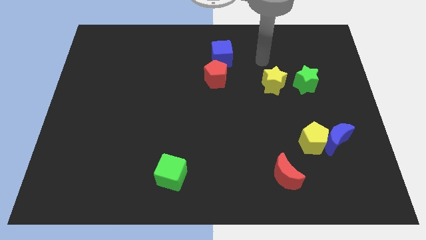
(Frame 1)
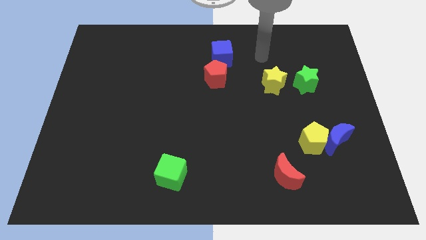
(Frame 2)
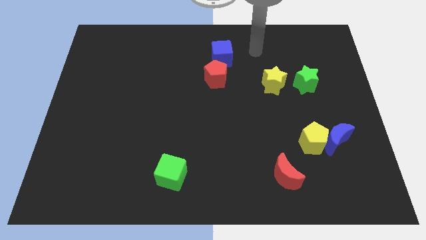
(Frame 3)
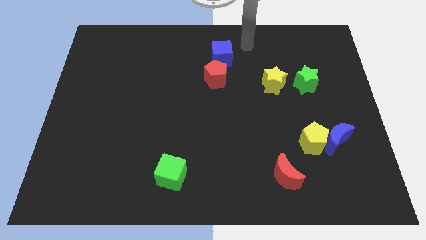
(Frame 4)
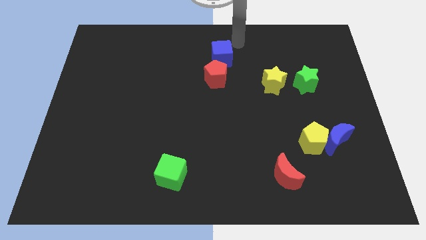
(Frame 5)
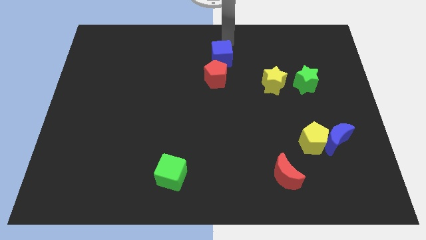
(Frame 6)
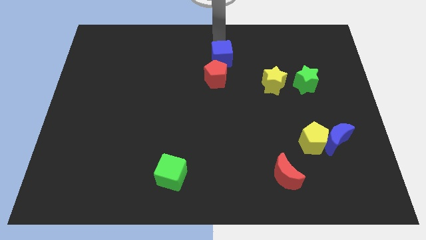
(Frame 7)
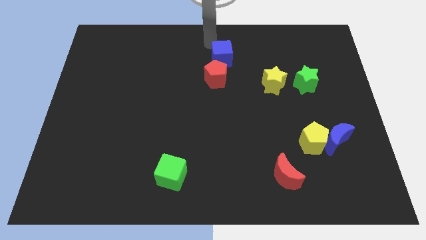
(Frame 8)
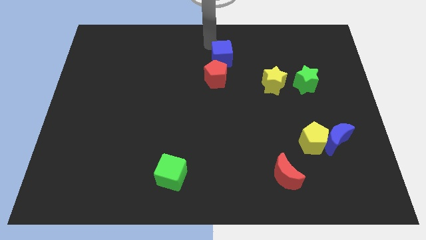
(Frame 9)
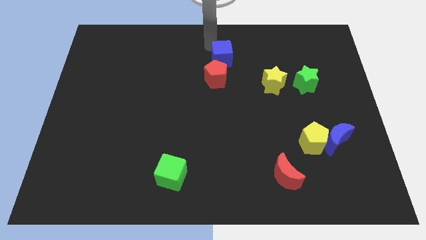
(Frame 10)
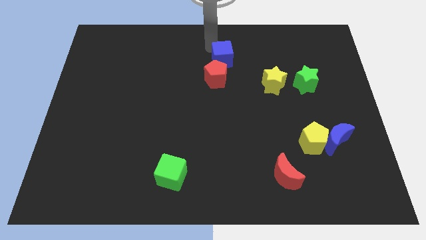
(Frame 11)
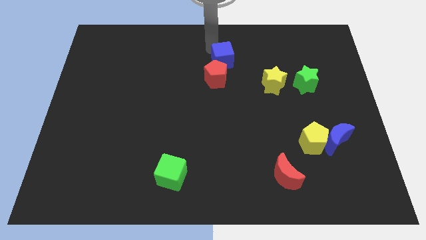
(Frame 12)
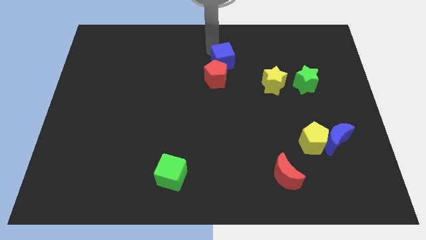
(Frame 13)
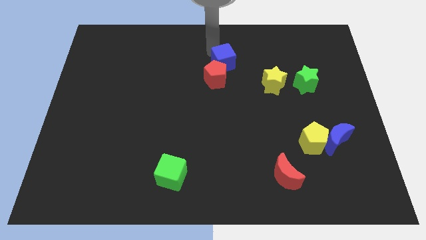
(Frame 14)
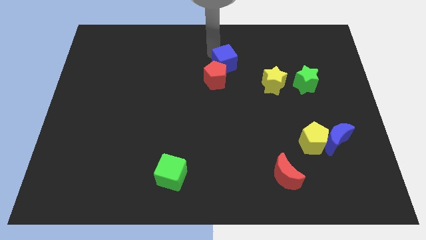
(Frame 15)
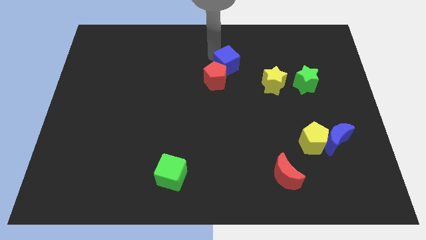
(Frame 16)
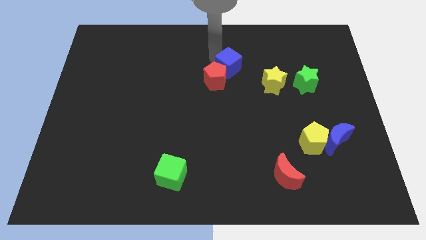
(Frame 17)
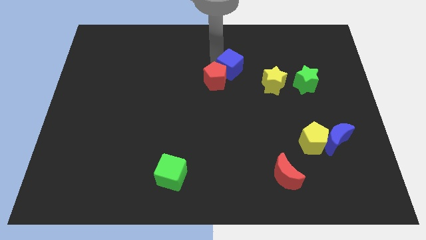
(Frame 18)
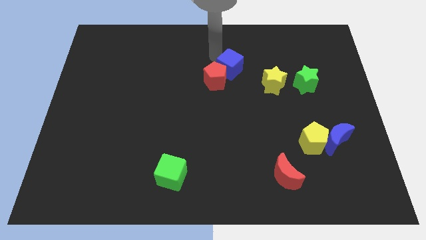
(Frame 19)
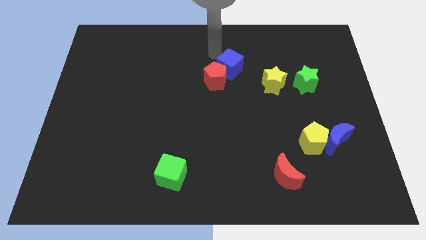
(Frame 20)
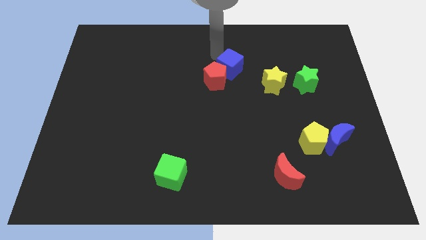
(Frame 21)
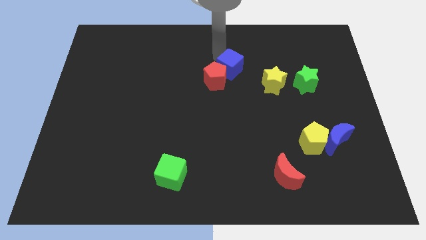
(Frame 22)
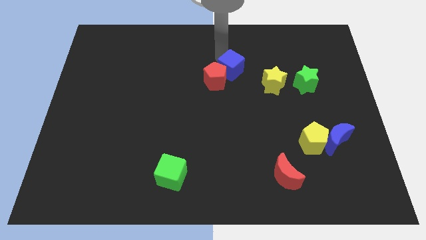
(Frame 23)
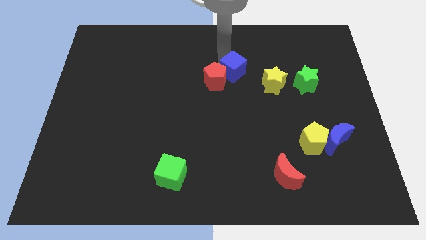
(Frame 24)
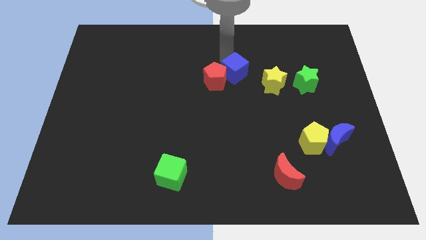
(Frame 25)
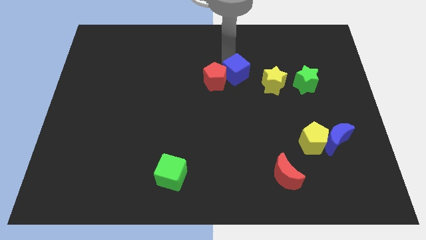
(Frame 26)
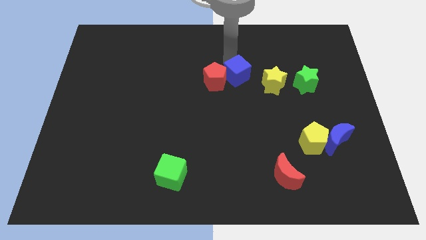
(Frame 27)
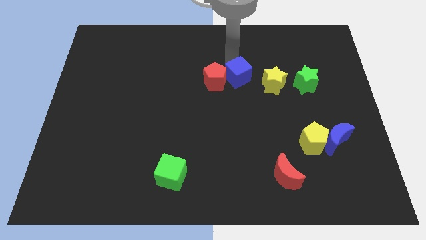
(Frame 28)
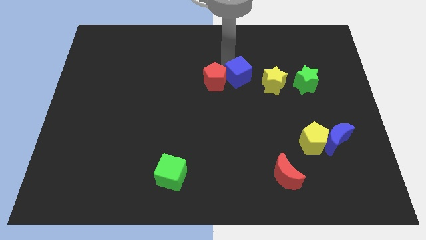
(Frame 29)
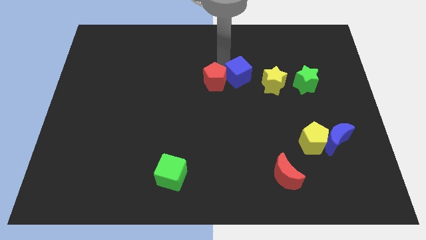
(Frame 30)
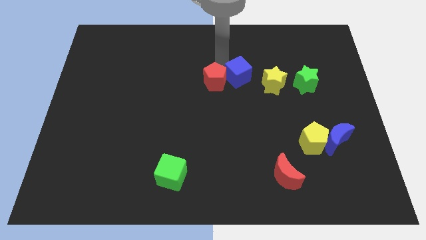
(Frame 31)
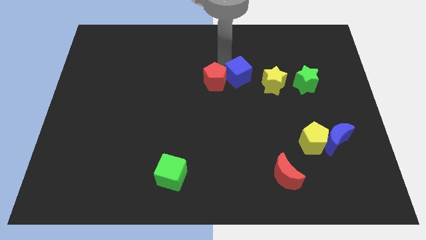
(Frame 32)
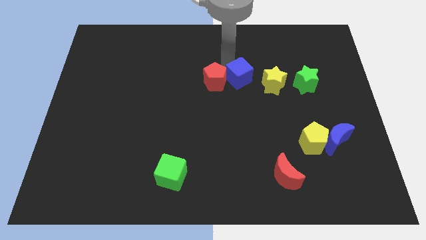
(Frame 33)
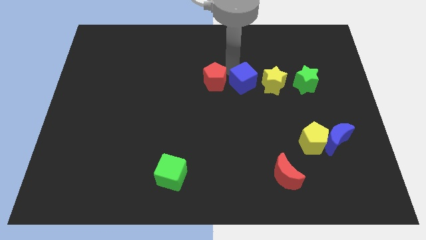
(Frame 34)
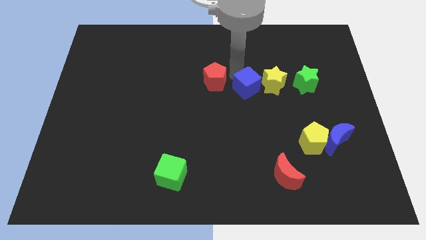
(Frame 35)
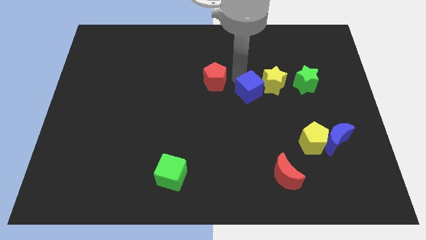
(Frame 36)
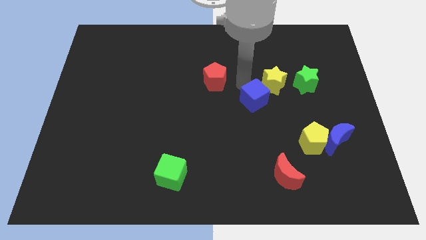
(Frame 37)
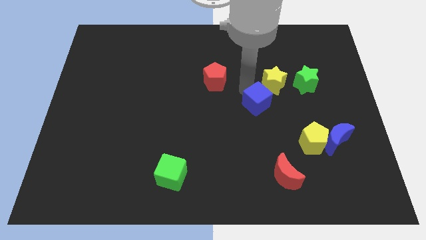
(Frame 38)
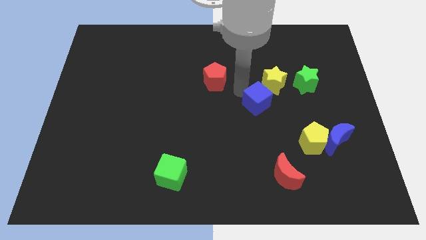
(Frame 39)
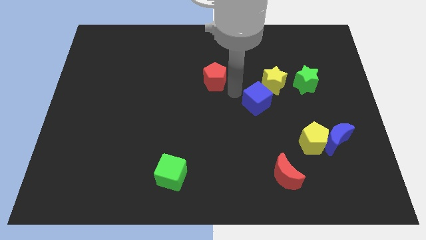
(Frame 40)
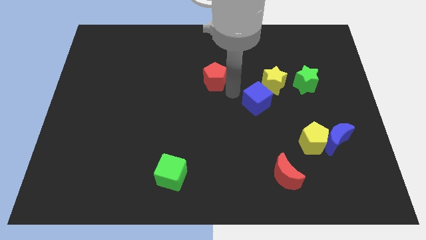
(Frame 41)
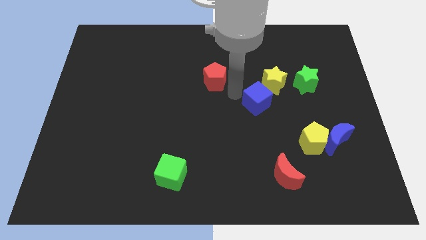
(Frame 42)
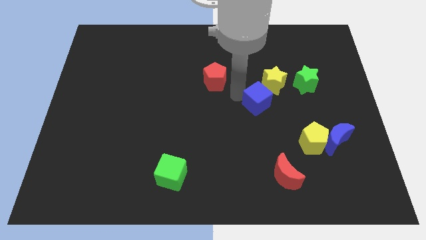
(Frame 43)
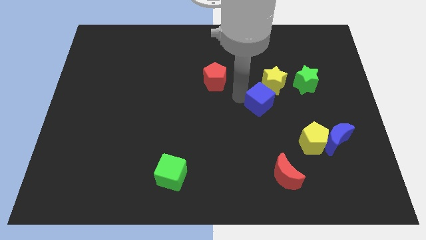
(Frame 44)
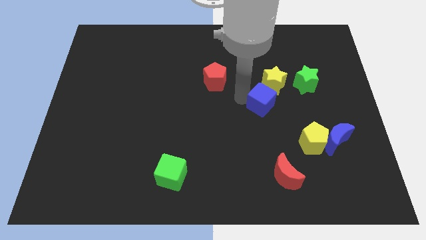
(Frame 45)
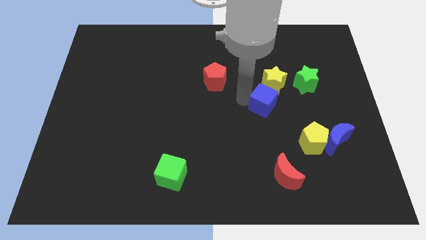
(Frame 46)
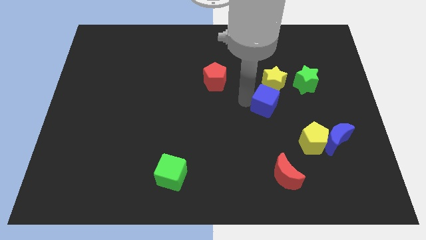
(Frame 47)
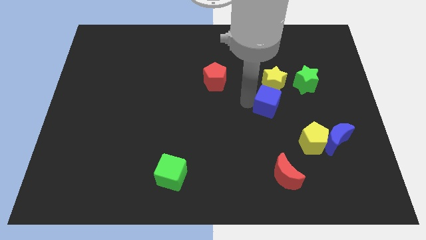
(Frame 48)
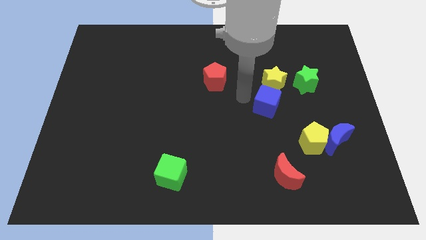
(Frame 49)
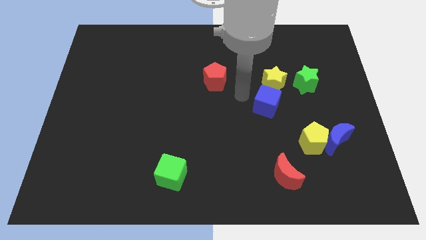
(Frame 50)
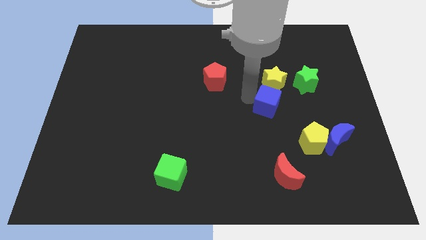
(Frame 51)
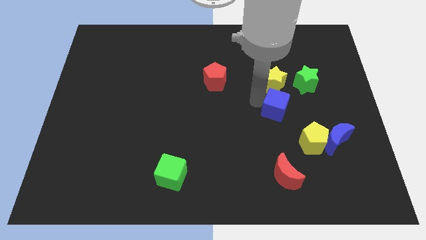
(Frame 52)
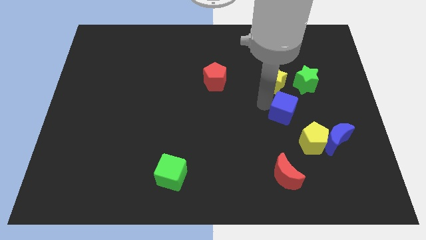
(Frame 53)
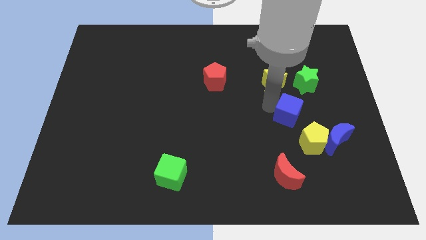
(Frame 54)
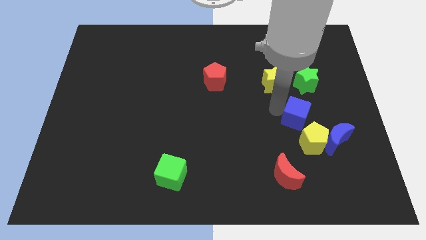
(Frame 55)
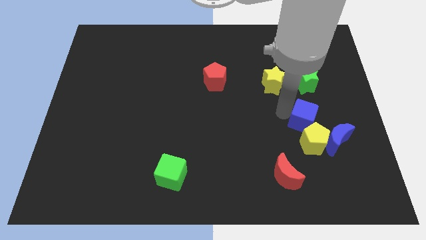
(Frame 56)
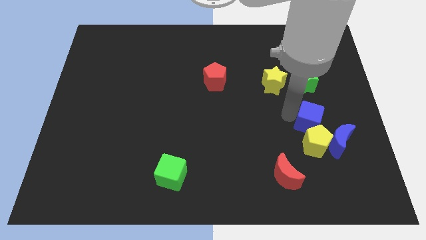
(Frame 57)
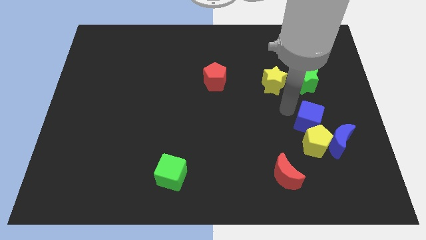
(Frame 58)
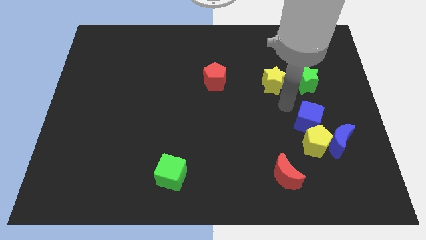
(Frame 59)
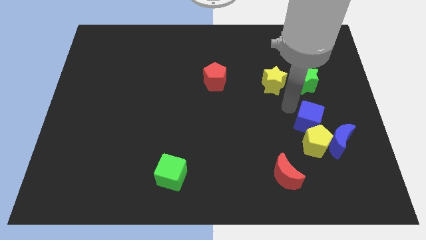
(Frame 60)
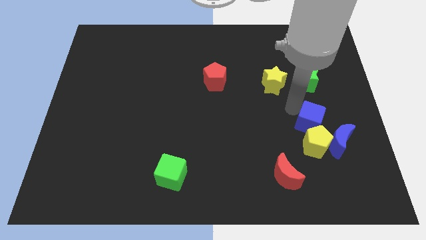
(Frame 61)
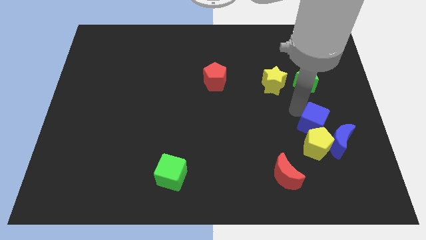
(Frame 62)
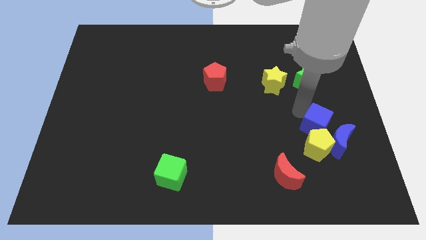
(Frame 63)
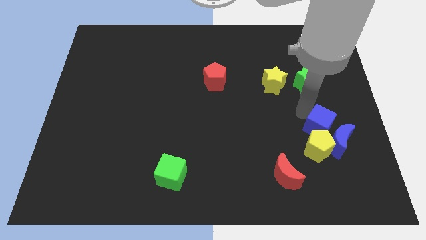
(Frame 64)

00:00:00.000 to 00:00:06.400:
put the blue cube to the blue moon

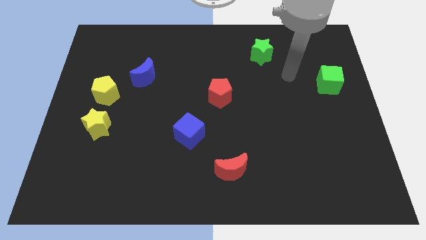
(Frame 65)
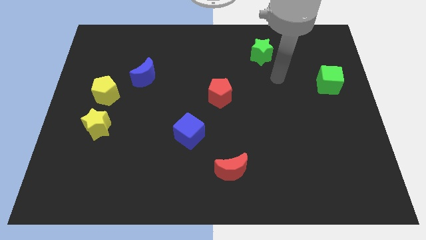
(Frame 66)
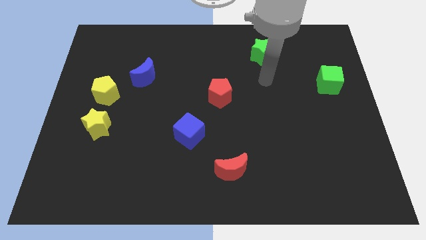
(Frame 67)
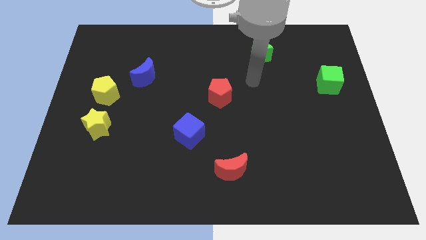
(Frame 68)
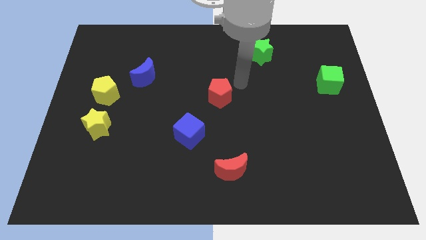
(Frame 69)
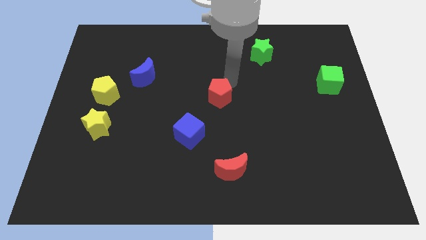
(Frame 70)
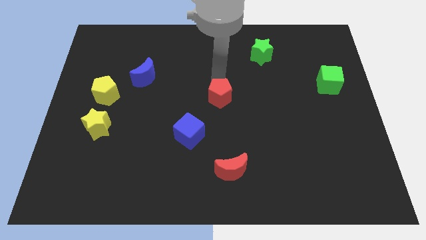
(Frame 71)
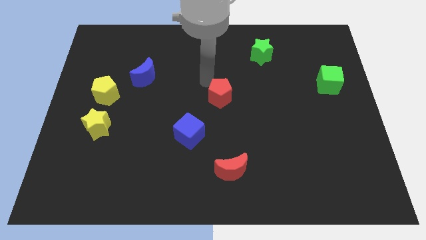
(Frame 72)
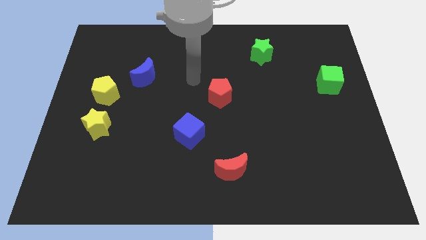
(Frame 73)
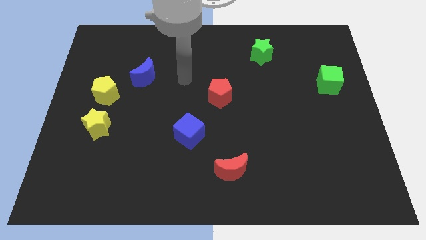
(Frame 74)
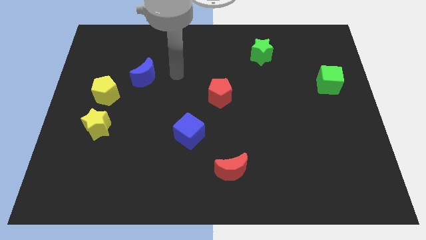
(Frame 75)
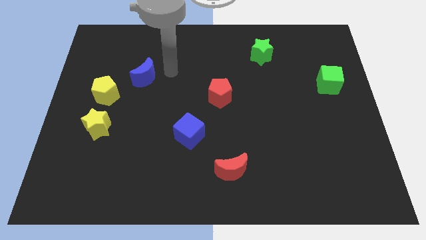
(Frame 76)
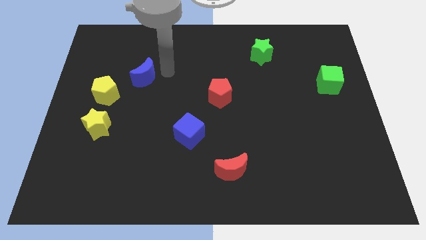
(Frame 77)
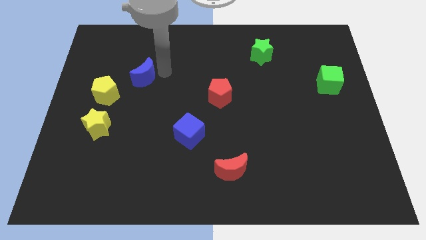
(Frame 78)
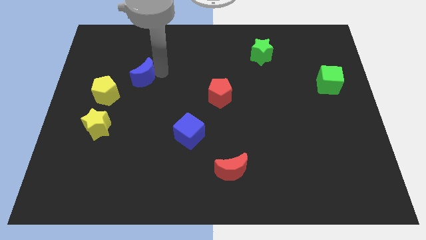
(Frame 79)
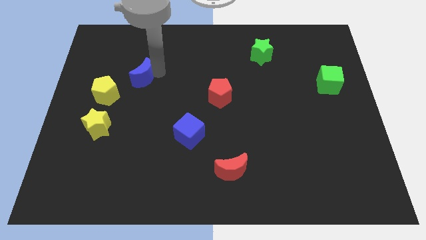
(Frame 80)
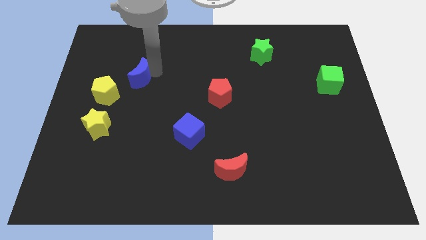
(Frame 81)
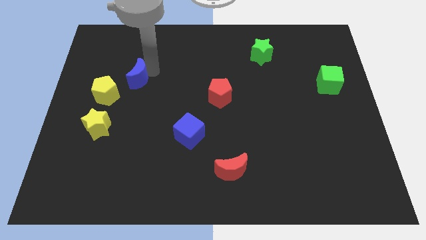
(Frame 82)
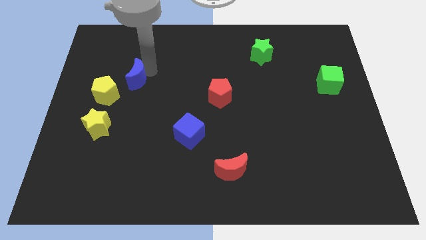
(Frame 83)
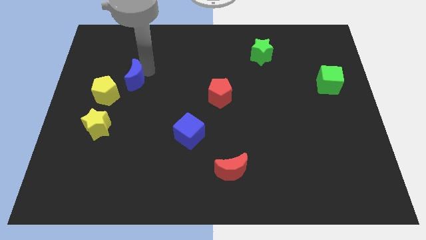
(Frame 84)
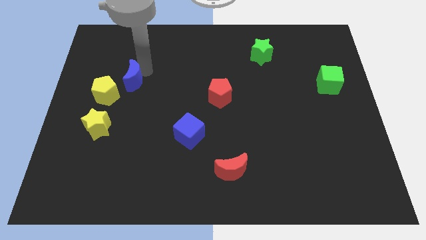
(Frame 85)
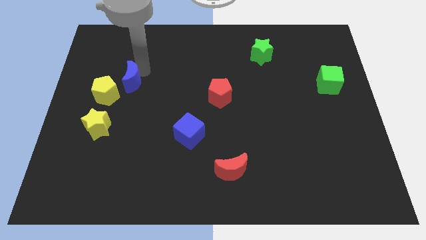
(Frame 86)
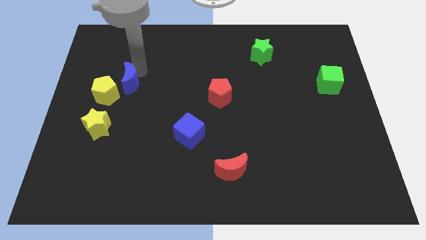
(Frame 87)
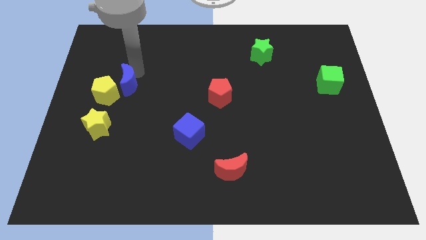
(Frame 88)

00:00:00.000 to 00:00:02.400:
put the blue moon next to the yellow pentagon
